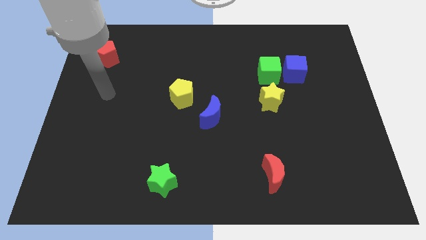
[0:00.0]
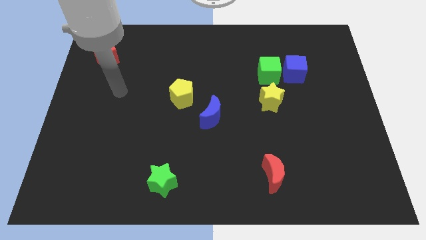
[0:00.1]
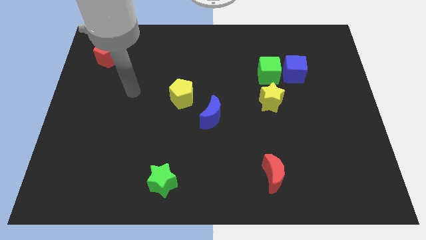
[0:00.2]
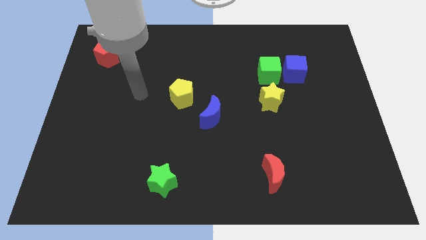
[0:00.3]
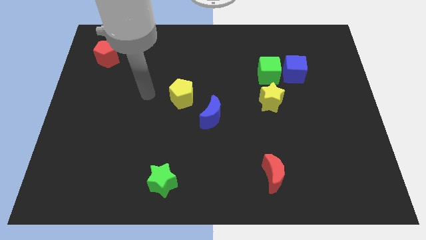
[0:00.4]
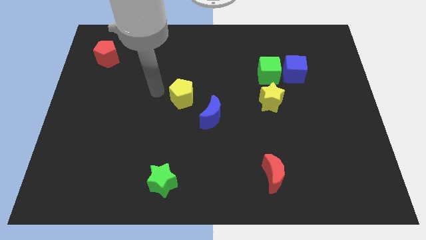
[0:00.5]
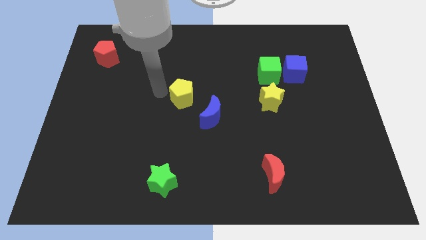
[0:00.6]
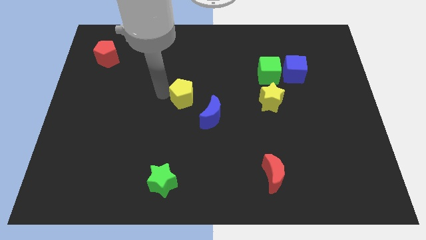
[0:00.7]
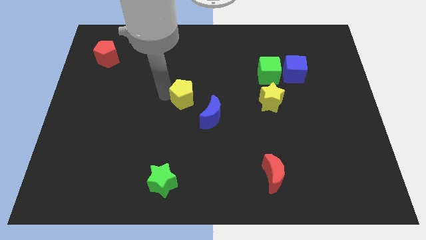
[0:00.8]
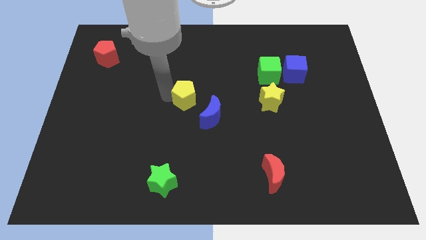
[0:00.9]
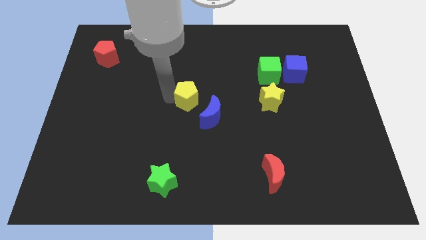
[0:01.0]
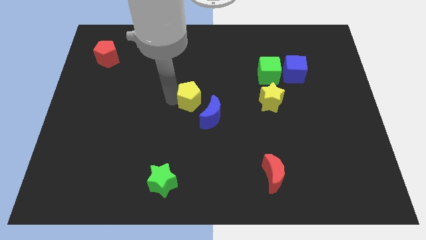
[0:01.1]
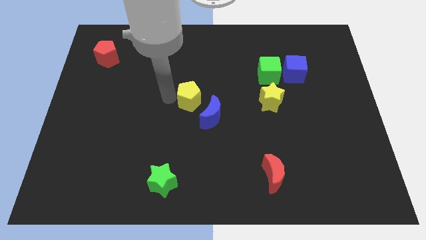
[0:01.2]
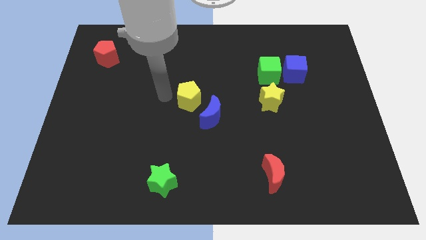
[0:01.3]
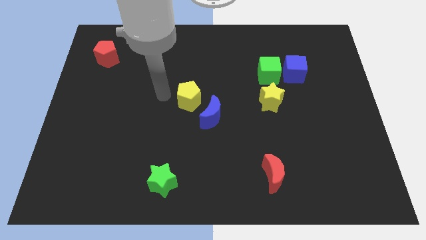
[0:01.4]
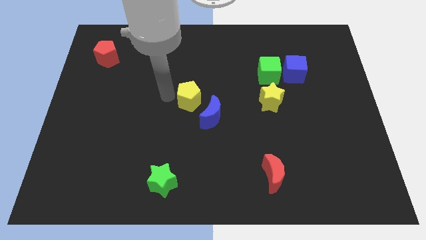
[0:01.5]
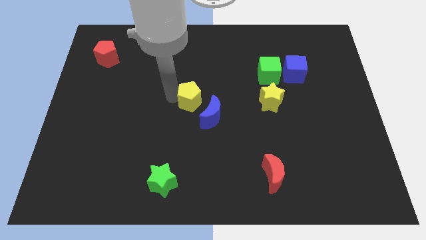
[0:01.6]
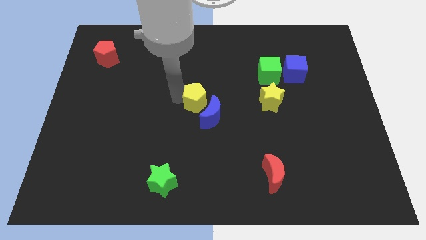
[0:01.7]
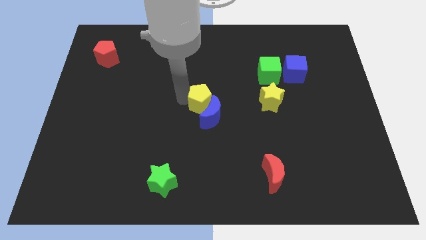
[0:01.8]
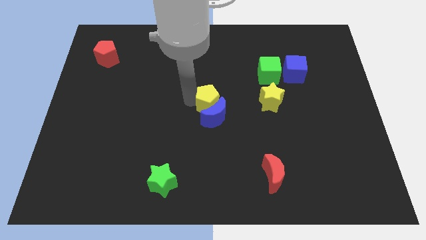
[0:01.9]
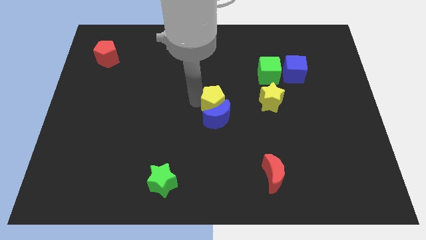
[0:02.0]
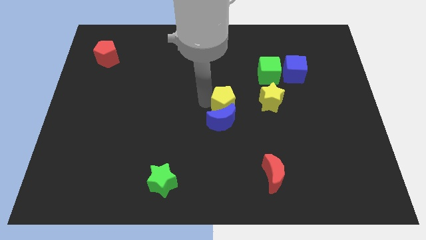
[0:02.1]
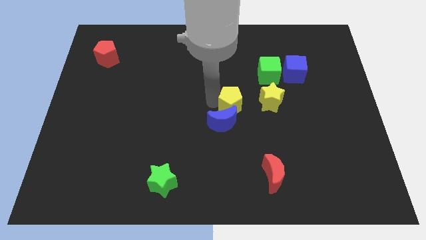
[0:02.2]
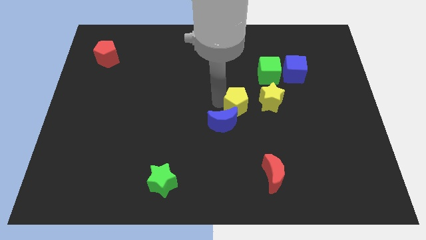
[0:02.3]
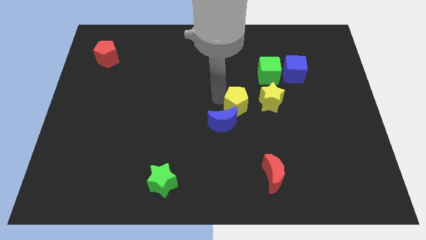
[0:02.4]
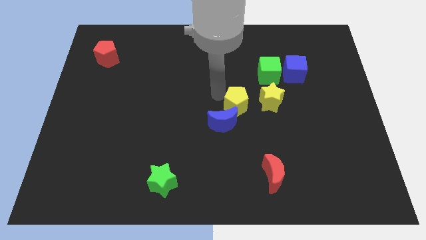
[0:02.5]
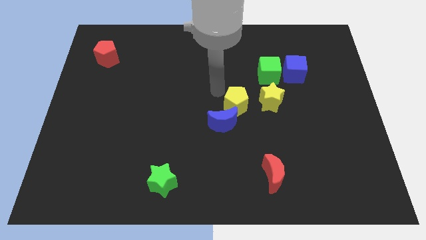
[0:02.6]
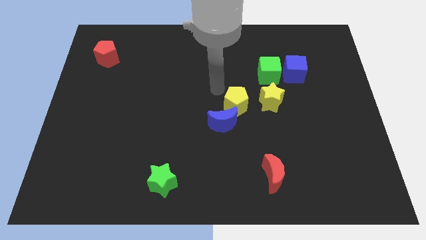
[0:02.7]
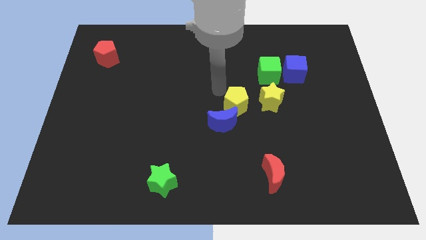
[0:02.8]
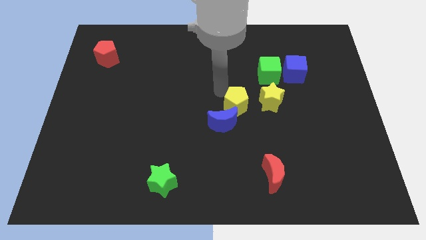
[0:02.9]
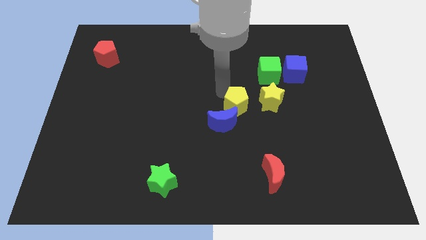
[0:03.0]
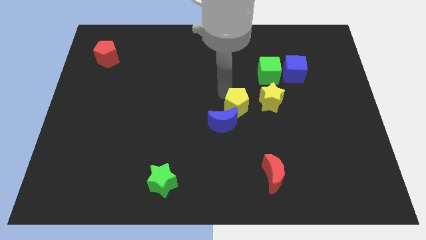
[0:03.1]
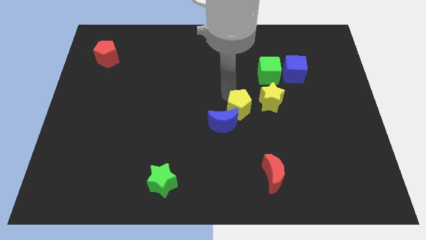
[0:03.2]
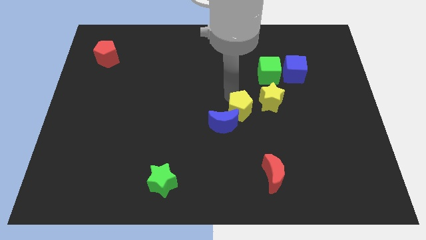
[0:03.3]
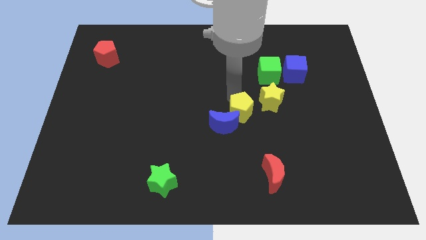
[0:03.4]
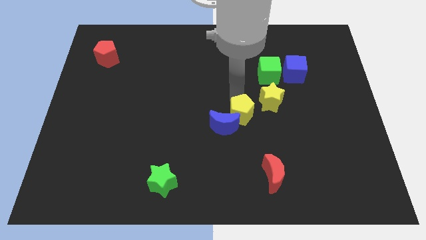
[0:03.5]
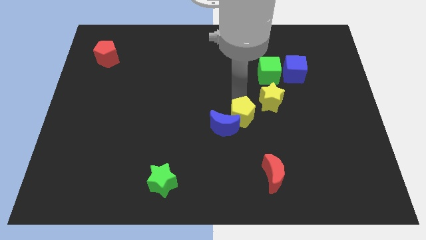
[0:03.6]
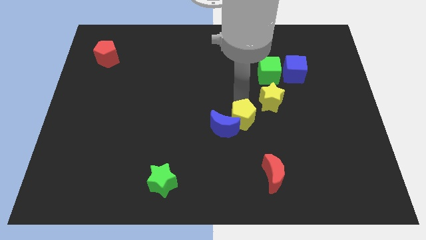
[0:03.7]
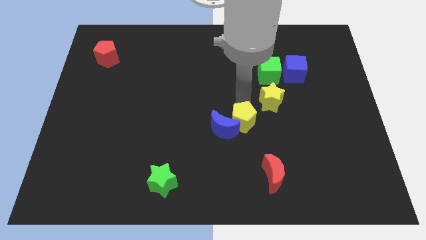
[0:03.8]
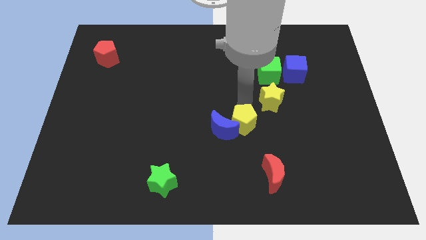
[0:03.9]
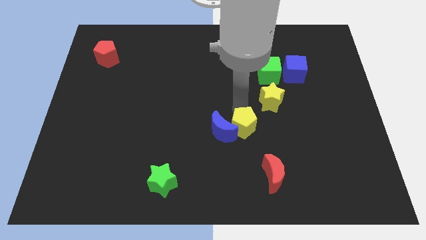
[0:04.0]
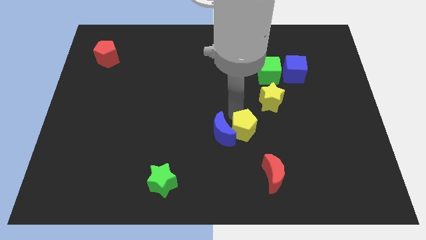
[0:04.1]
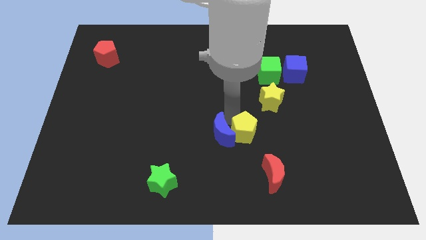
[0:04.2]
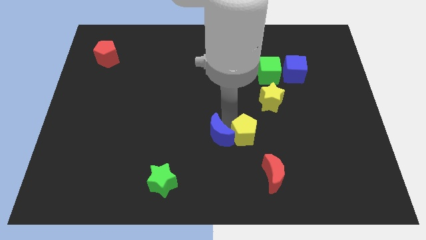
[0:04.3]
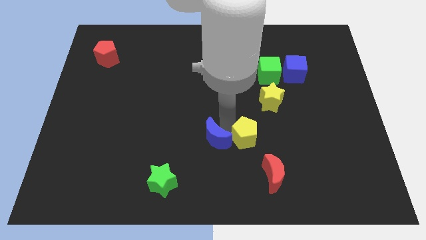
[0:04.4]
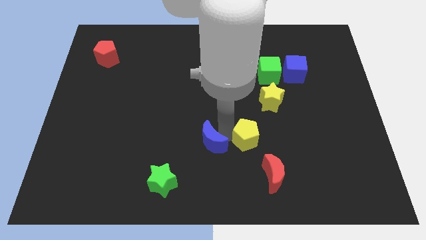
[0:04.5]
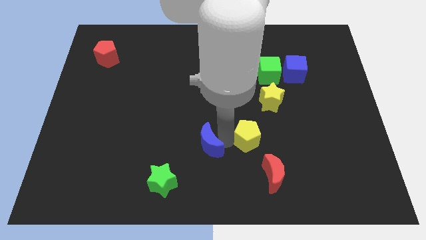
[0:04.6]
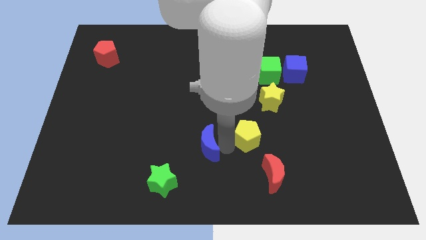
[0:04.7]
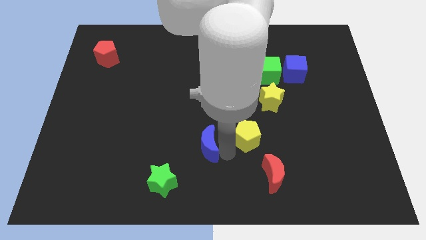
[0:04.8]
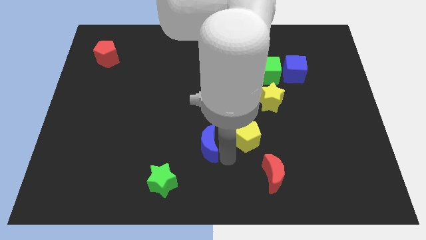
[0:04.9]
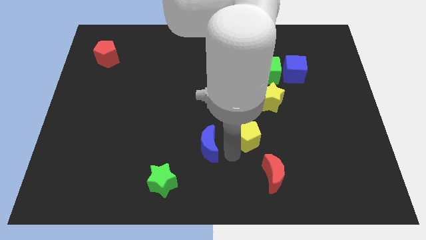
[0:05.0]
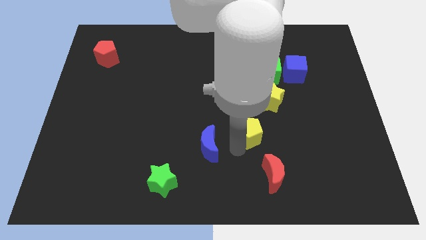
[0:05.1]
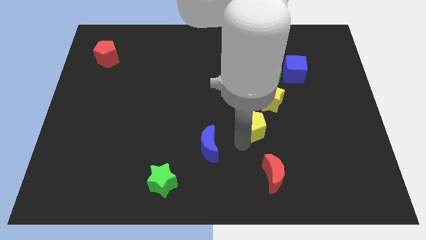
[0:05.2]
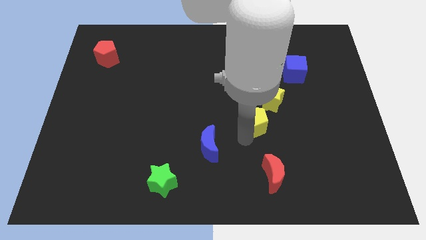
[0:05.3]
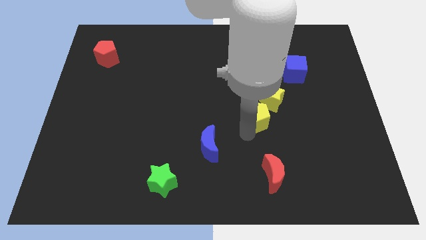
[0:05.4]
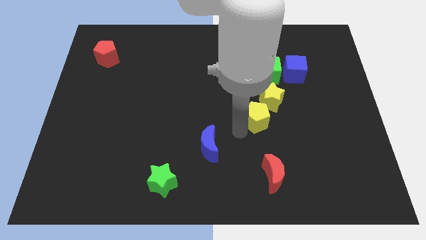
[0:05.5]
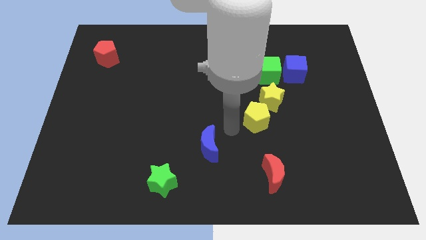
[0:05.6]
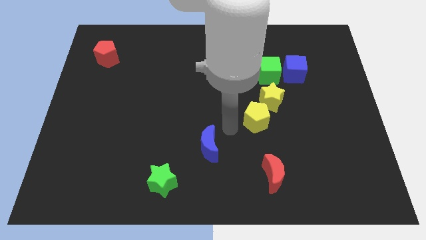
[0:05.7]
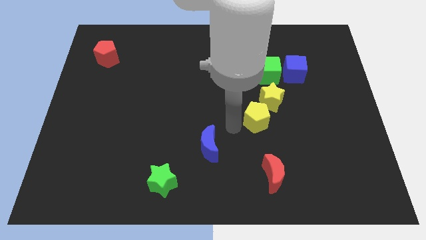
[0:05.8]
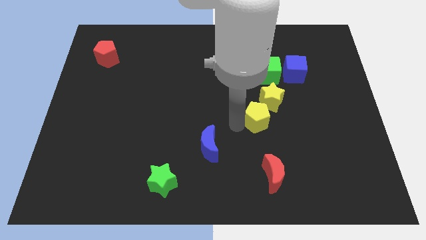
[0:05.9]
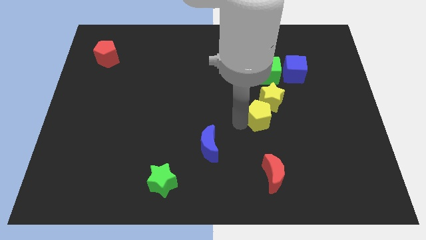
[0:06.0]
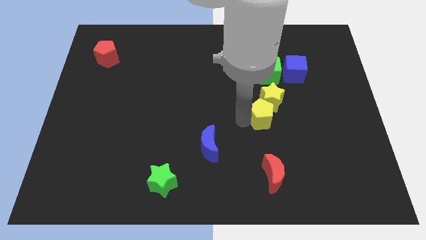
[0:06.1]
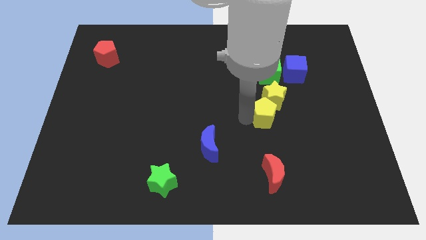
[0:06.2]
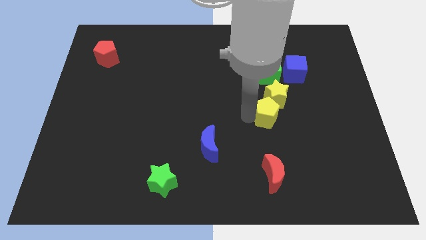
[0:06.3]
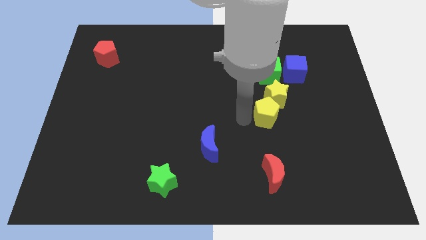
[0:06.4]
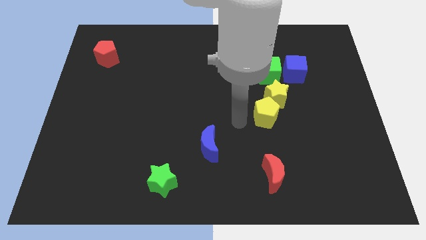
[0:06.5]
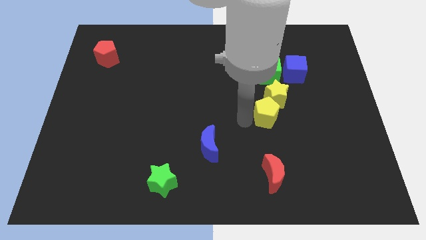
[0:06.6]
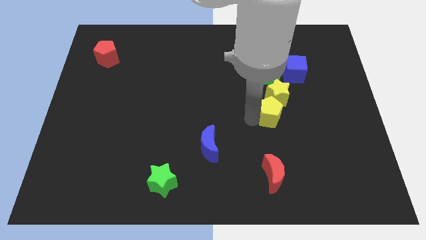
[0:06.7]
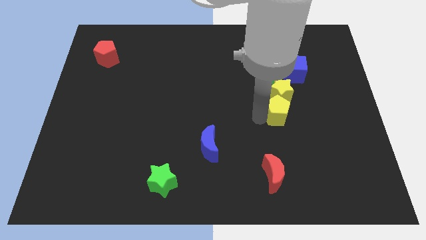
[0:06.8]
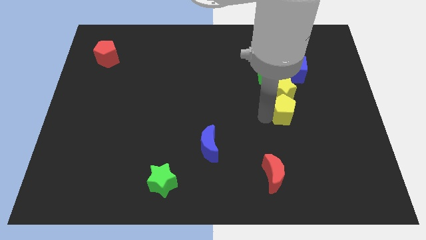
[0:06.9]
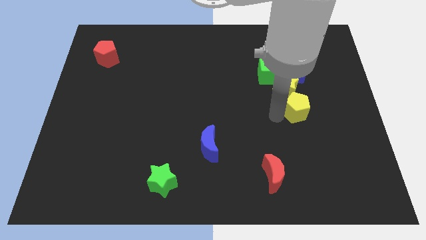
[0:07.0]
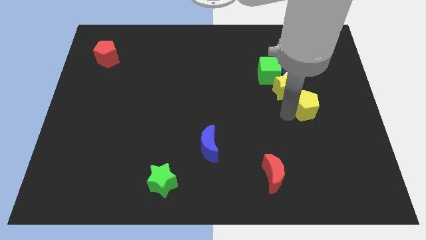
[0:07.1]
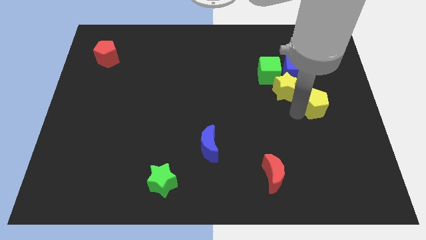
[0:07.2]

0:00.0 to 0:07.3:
move the yellow pentagon to the right side of the yellow star
